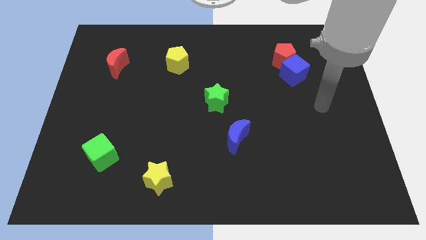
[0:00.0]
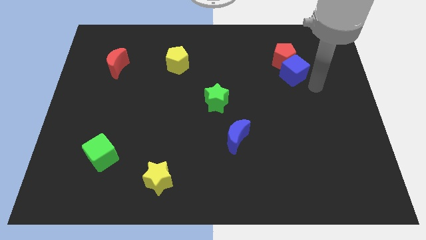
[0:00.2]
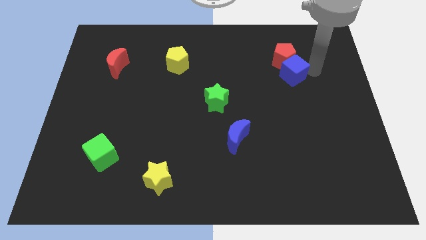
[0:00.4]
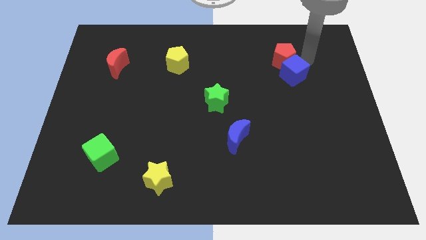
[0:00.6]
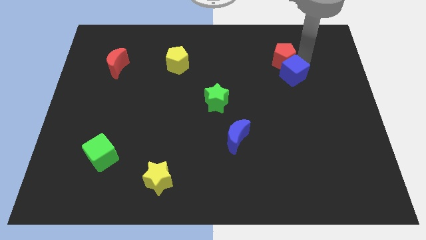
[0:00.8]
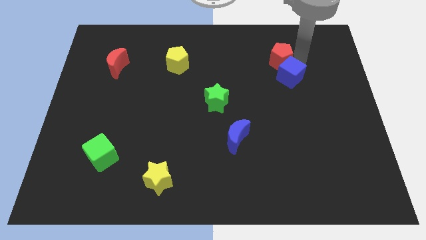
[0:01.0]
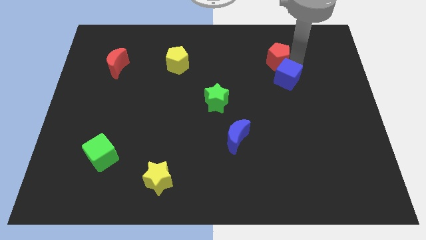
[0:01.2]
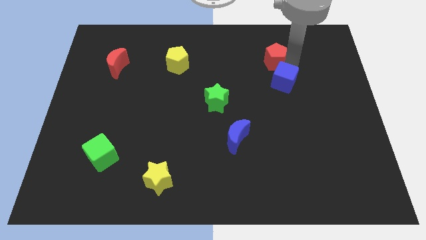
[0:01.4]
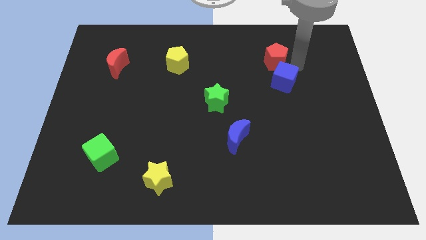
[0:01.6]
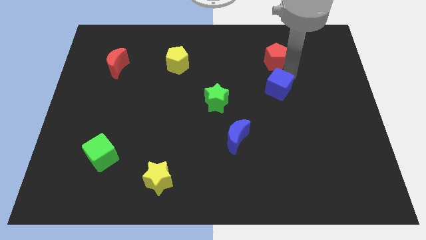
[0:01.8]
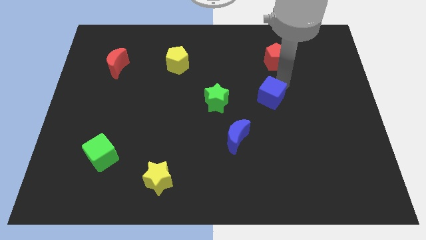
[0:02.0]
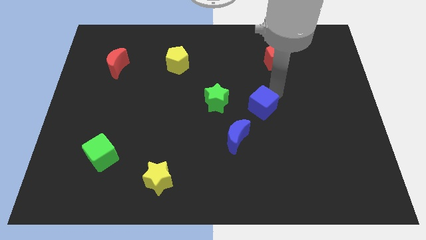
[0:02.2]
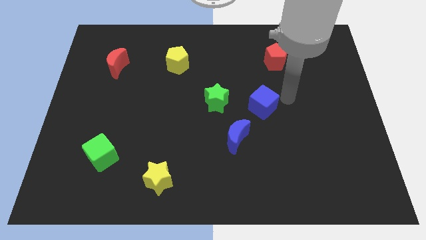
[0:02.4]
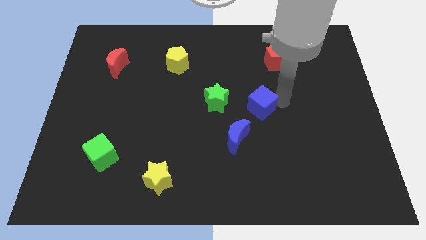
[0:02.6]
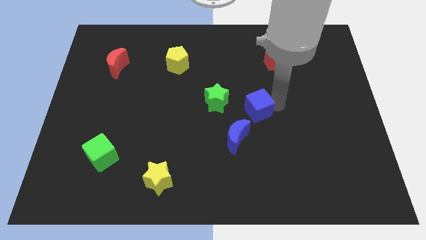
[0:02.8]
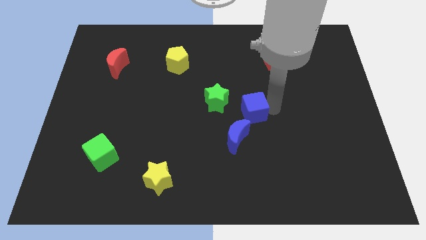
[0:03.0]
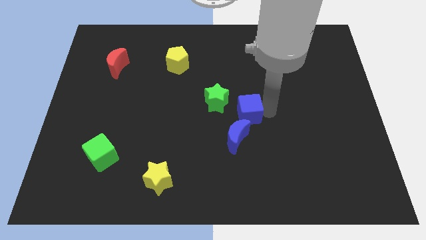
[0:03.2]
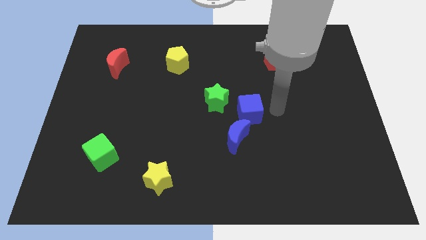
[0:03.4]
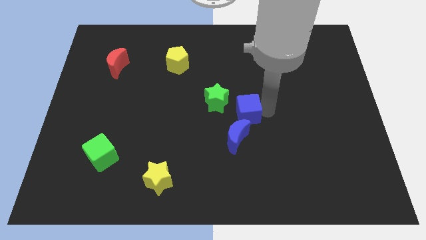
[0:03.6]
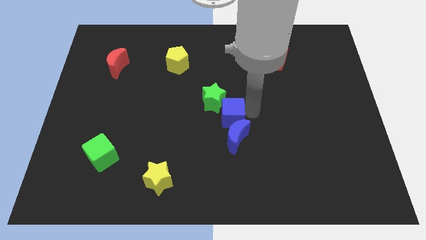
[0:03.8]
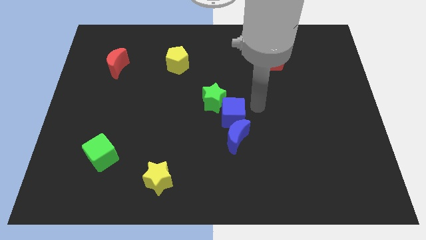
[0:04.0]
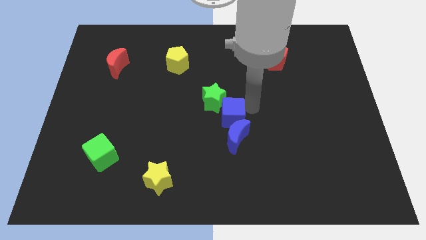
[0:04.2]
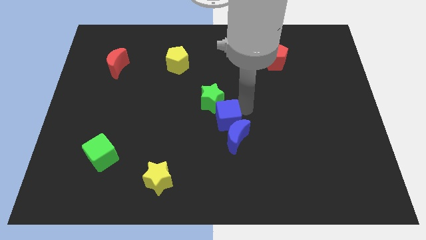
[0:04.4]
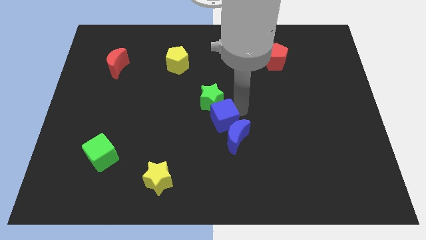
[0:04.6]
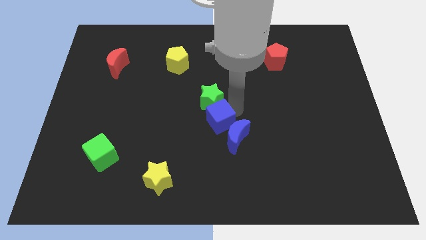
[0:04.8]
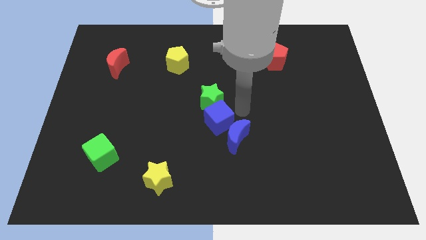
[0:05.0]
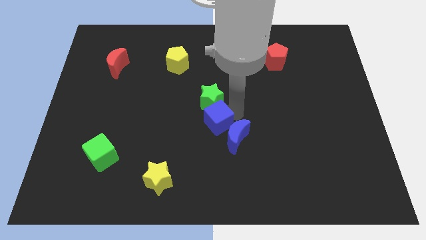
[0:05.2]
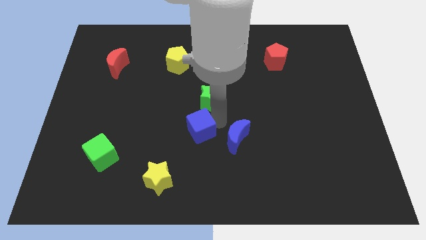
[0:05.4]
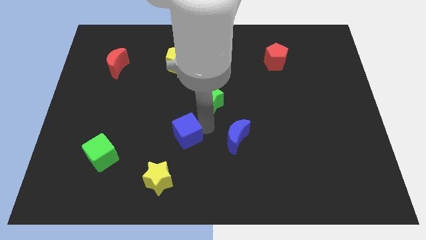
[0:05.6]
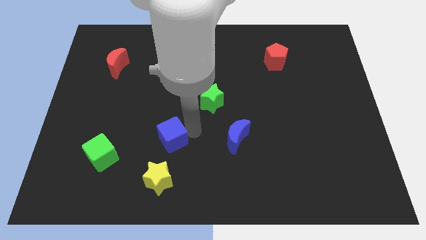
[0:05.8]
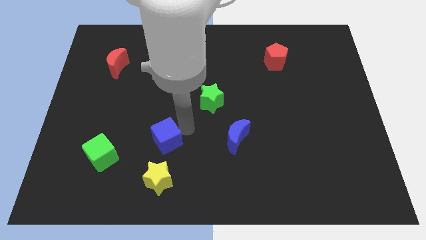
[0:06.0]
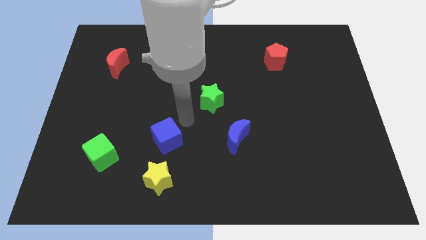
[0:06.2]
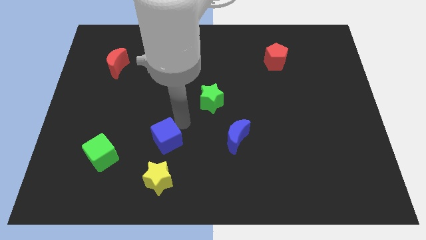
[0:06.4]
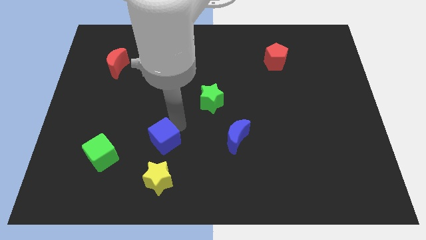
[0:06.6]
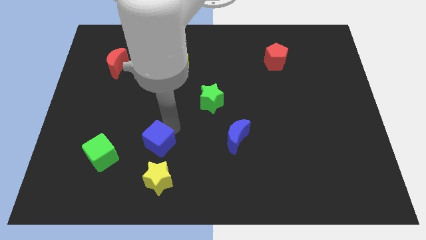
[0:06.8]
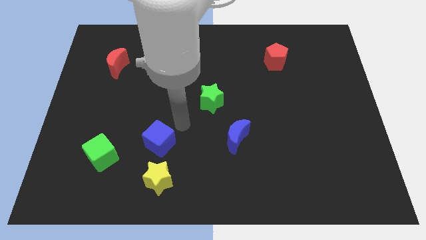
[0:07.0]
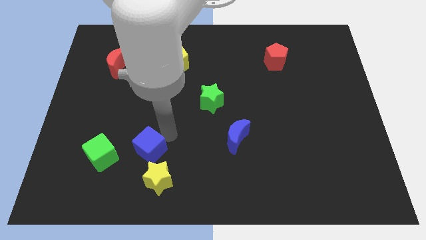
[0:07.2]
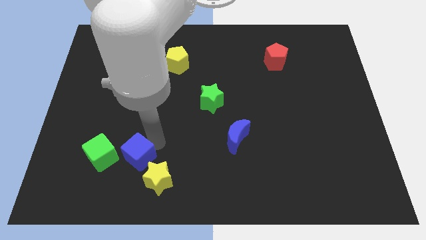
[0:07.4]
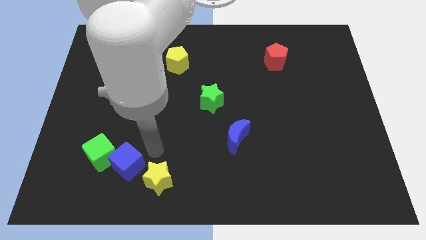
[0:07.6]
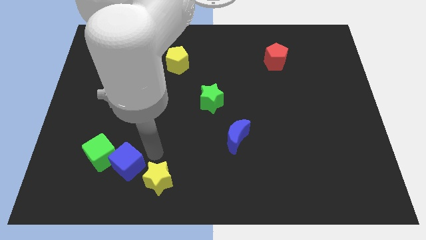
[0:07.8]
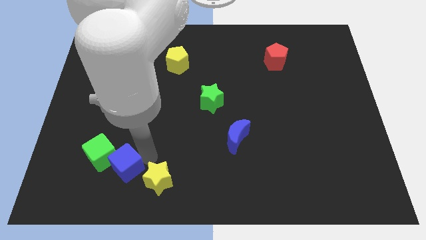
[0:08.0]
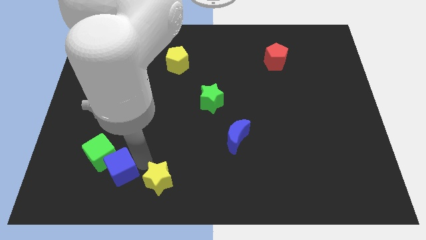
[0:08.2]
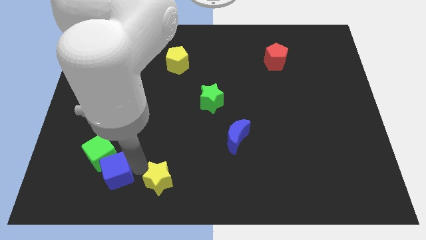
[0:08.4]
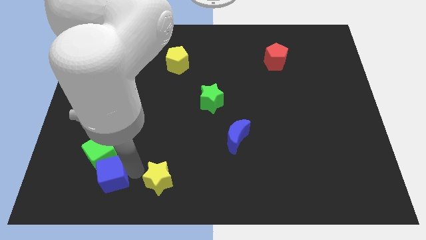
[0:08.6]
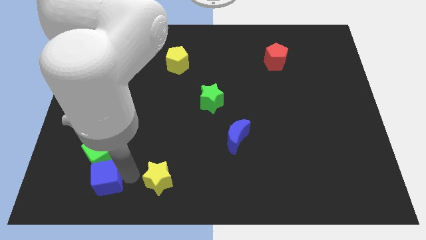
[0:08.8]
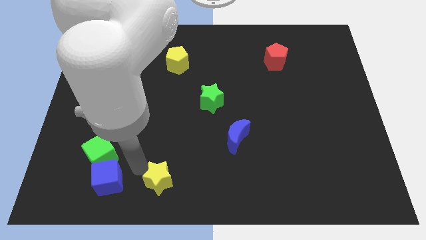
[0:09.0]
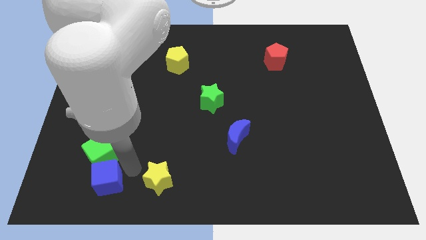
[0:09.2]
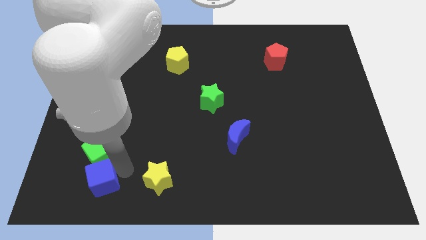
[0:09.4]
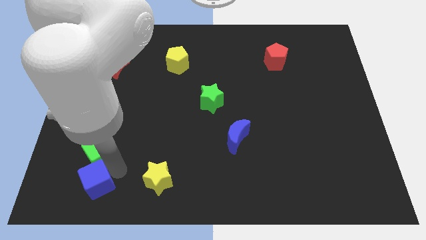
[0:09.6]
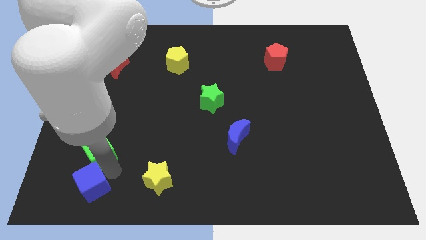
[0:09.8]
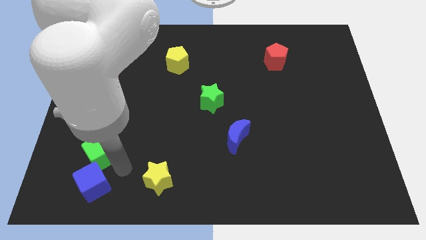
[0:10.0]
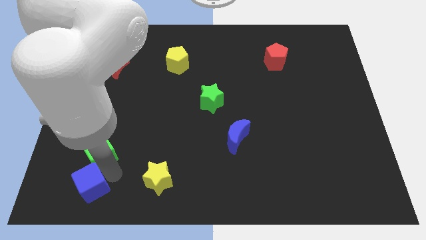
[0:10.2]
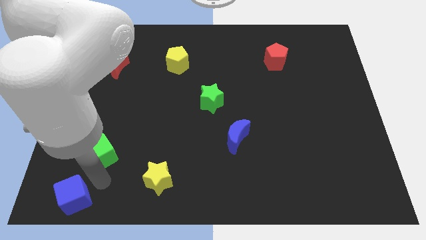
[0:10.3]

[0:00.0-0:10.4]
move the blue cube to the bottom left of the board

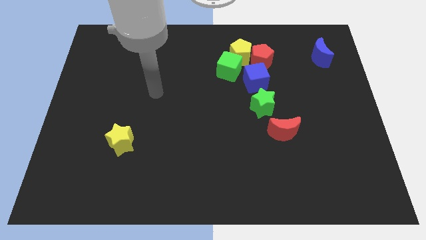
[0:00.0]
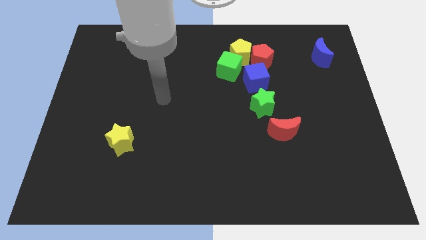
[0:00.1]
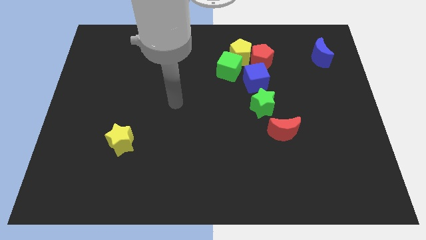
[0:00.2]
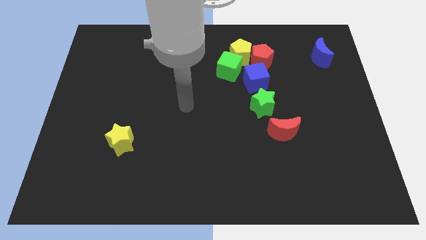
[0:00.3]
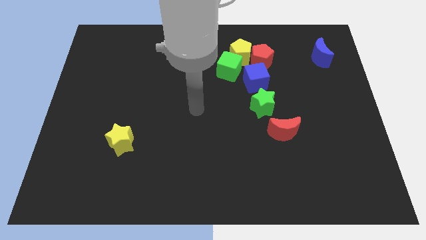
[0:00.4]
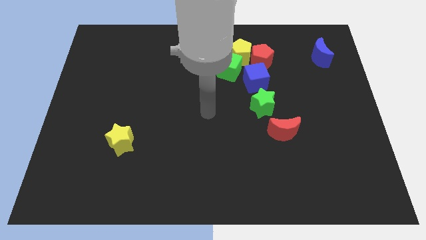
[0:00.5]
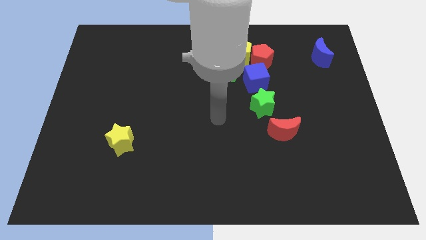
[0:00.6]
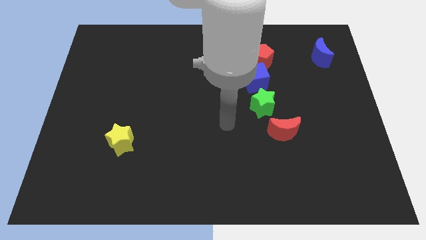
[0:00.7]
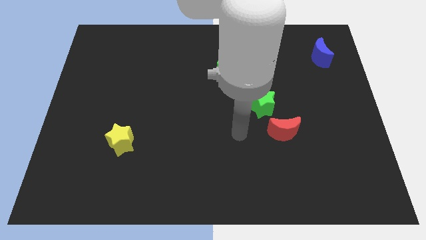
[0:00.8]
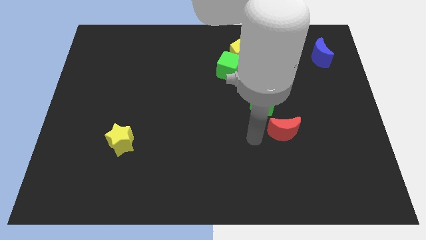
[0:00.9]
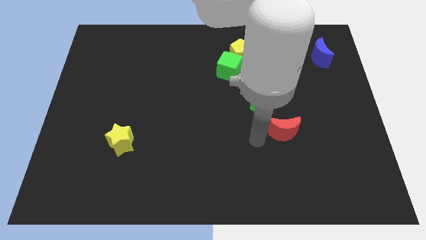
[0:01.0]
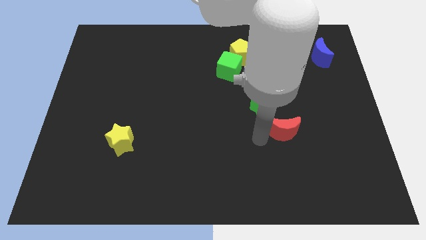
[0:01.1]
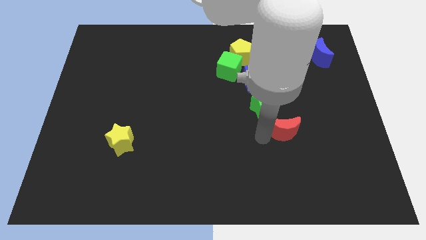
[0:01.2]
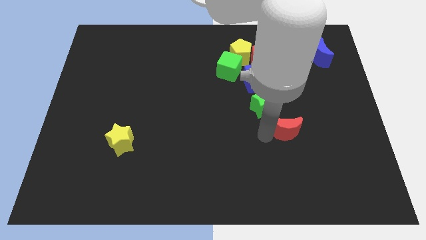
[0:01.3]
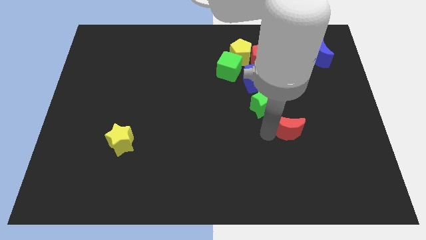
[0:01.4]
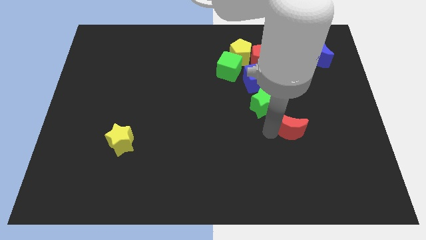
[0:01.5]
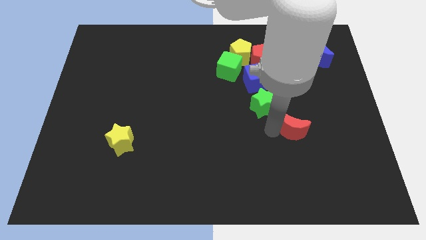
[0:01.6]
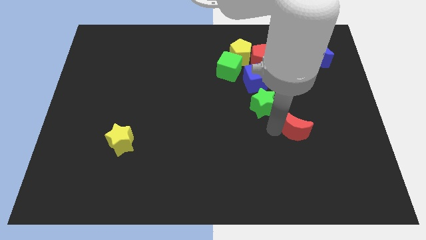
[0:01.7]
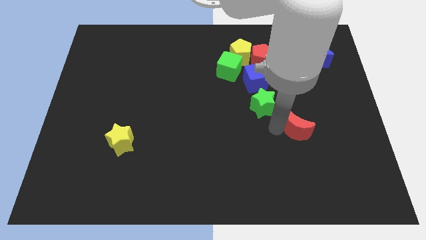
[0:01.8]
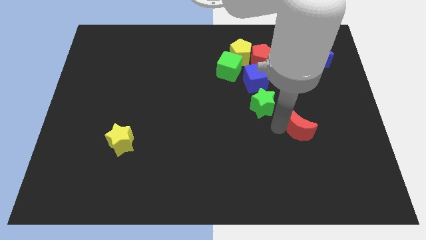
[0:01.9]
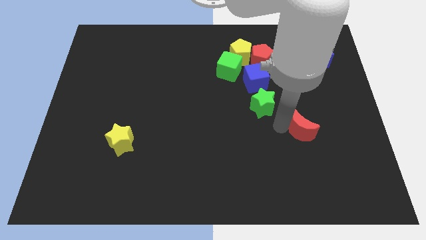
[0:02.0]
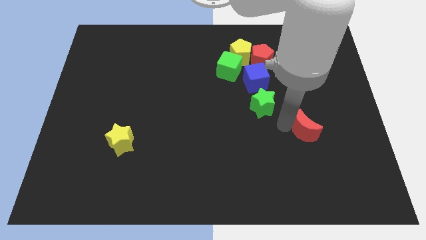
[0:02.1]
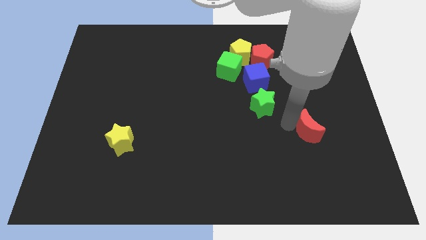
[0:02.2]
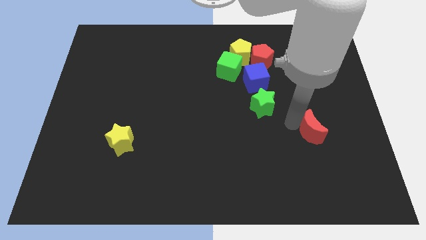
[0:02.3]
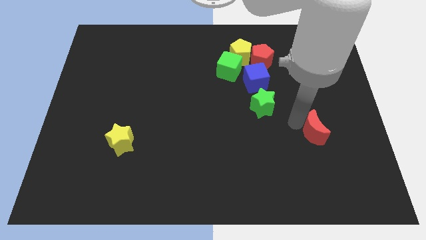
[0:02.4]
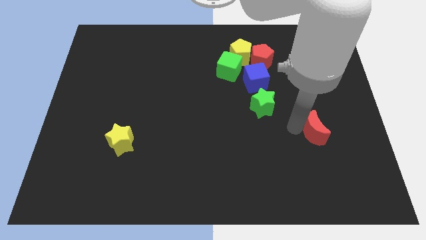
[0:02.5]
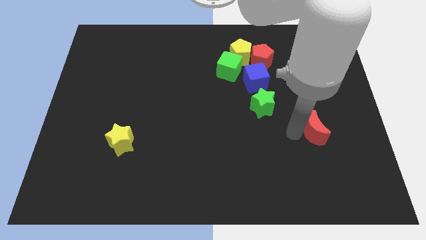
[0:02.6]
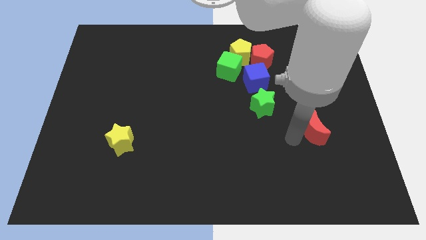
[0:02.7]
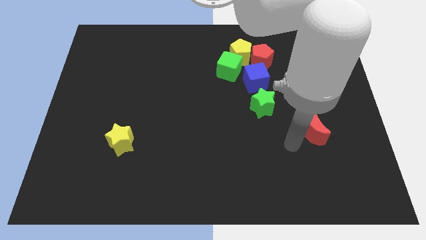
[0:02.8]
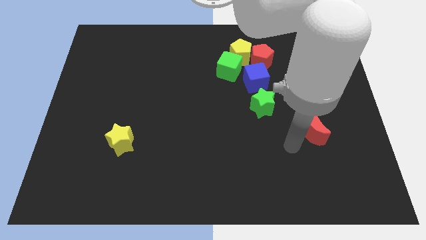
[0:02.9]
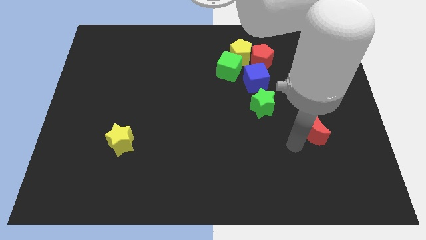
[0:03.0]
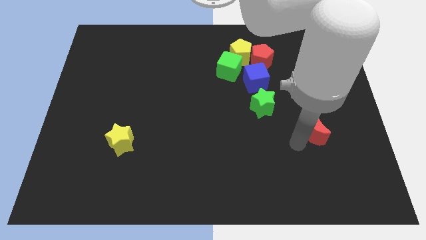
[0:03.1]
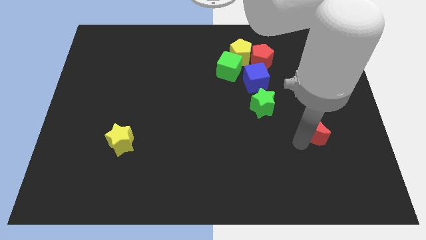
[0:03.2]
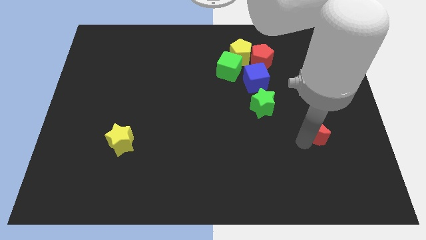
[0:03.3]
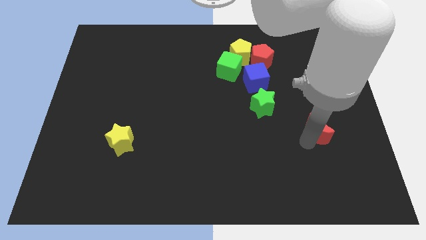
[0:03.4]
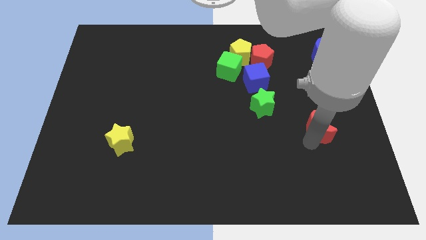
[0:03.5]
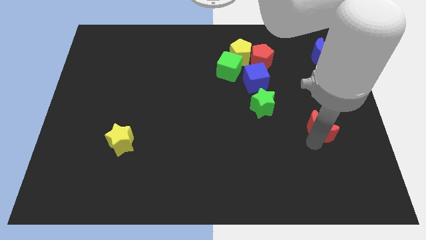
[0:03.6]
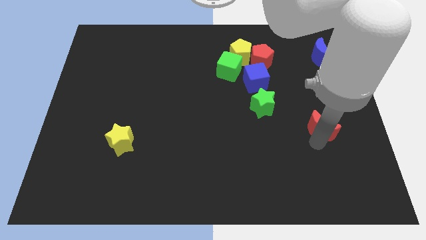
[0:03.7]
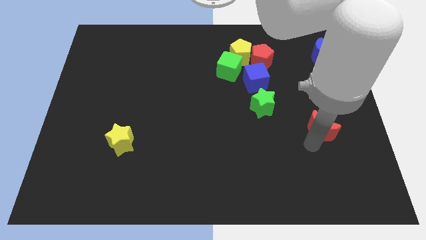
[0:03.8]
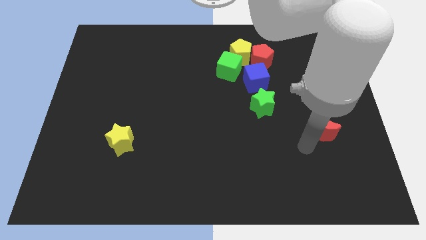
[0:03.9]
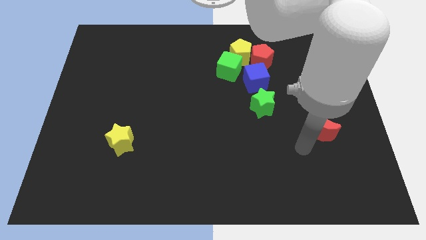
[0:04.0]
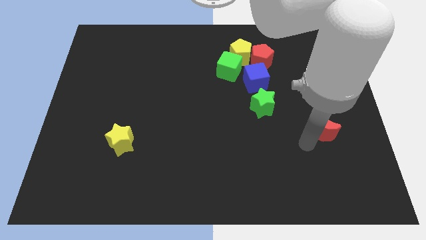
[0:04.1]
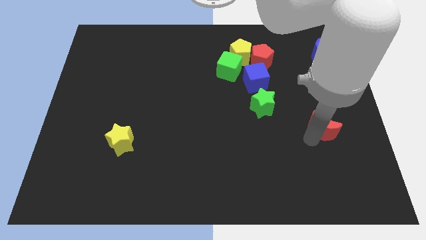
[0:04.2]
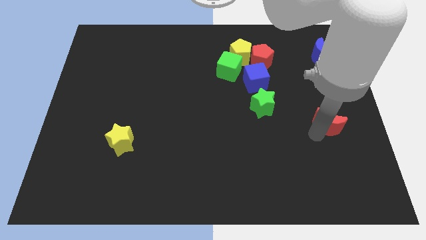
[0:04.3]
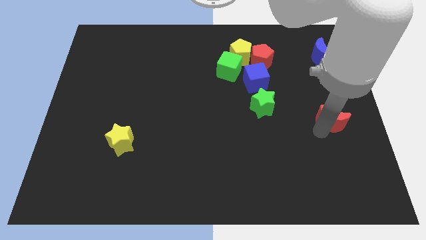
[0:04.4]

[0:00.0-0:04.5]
slide the red moon to the right side of the board
